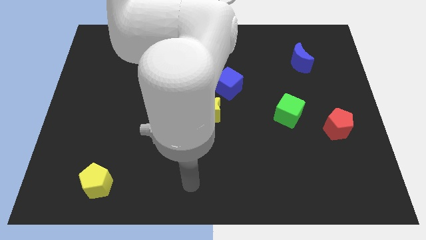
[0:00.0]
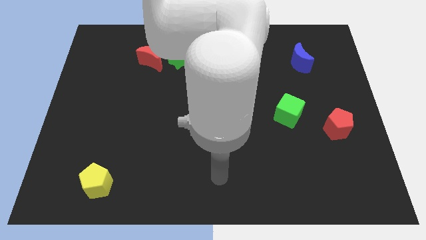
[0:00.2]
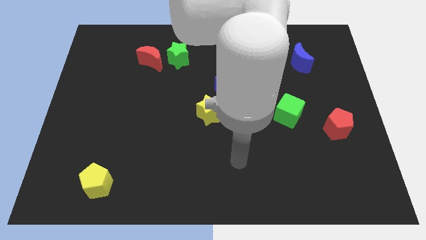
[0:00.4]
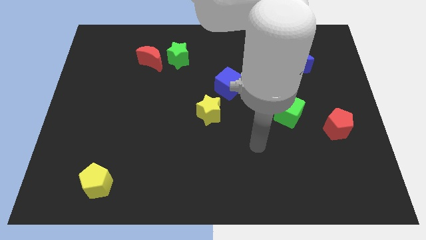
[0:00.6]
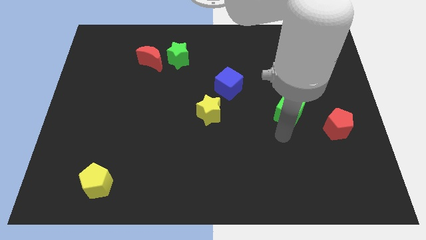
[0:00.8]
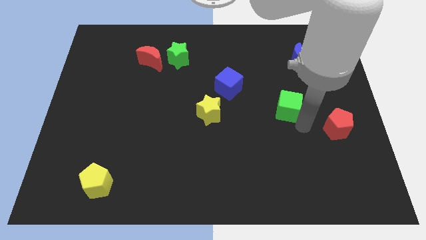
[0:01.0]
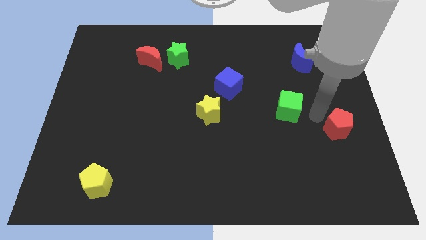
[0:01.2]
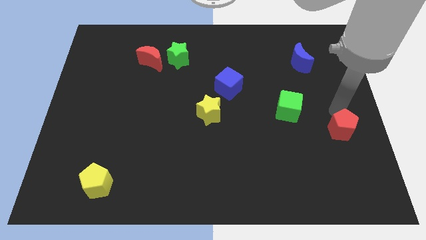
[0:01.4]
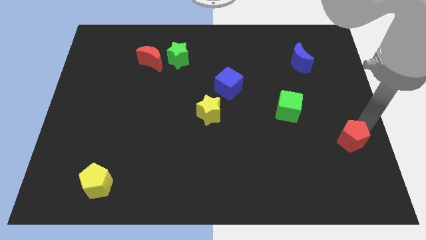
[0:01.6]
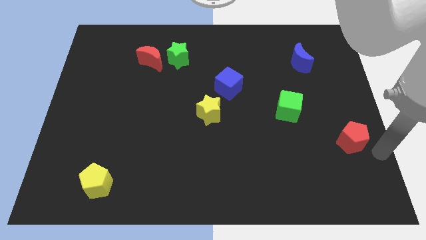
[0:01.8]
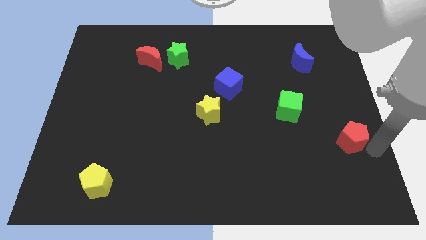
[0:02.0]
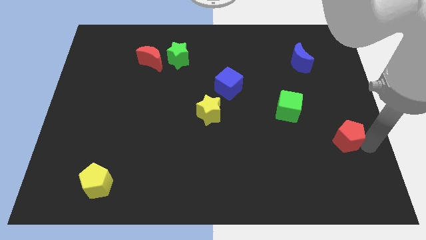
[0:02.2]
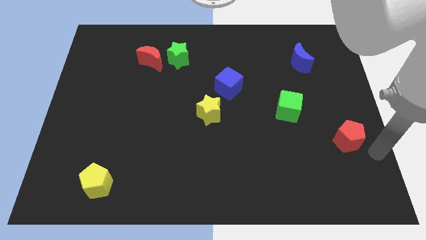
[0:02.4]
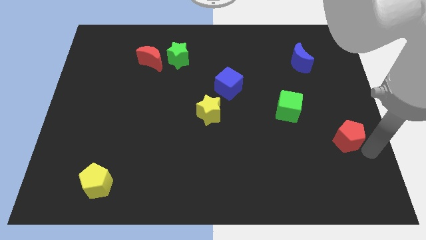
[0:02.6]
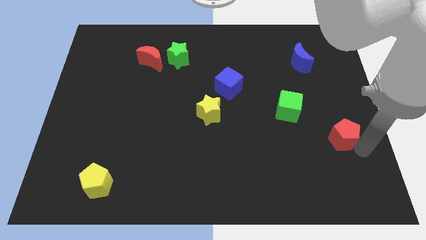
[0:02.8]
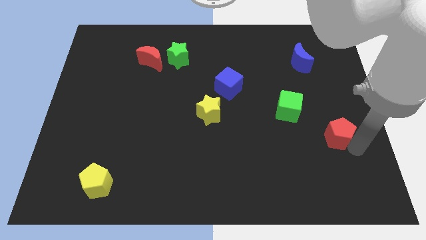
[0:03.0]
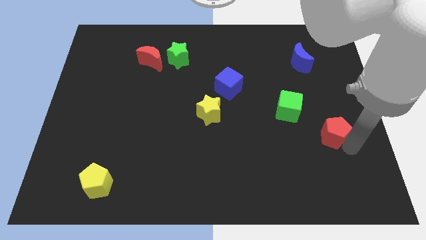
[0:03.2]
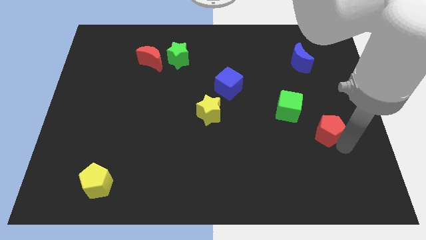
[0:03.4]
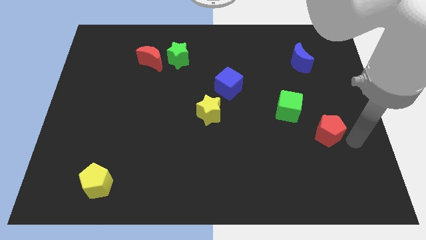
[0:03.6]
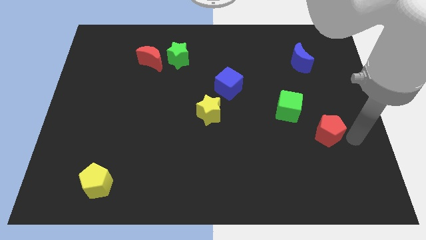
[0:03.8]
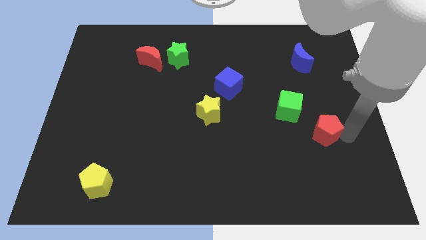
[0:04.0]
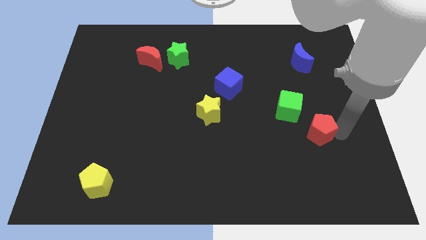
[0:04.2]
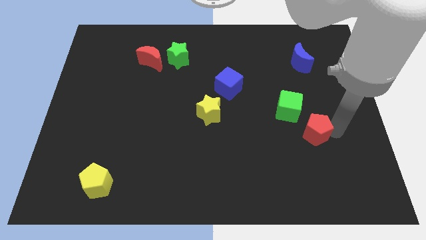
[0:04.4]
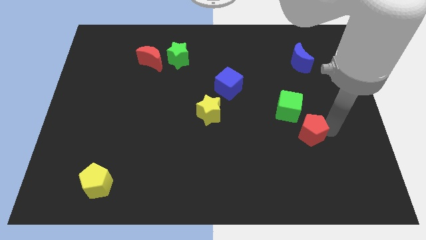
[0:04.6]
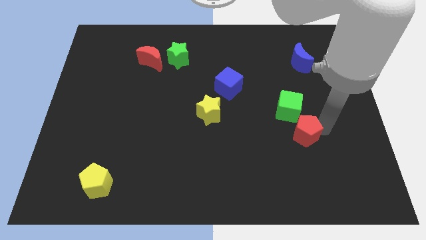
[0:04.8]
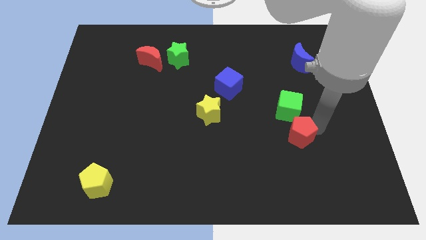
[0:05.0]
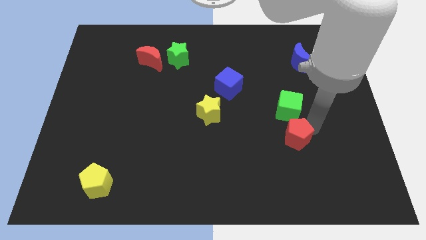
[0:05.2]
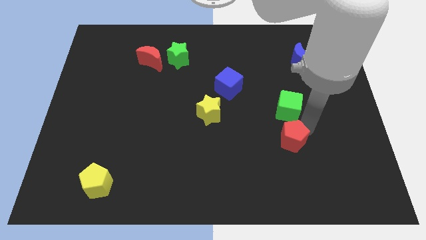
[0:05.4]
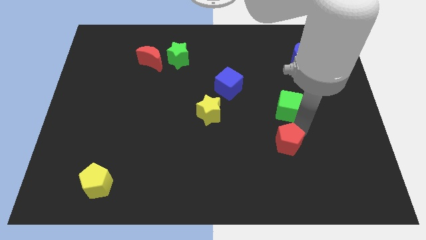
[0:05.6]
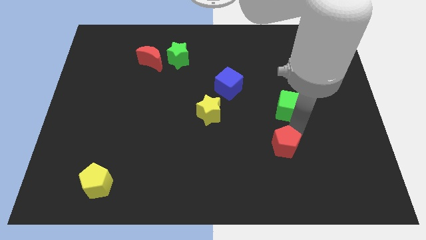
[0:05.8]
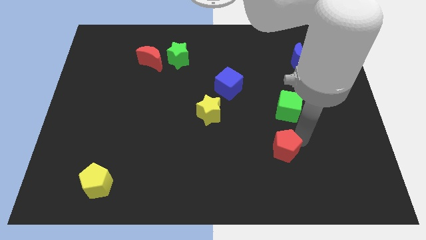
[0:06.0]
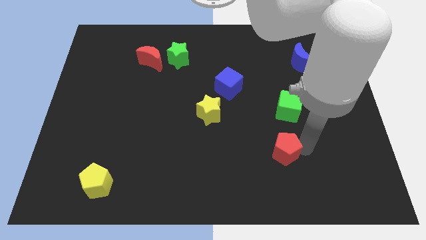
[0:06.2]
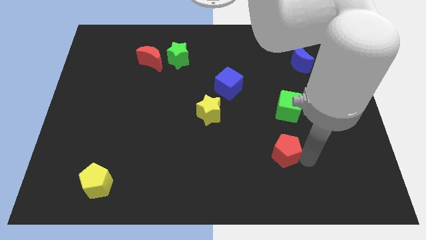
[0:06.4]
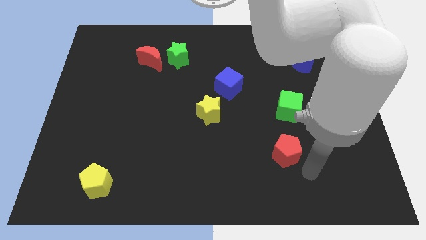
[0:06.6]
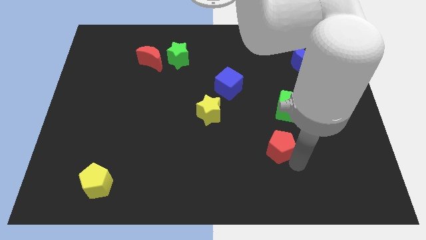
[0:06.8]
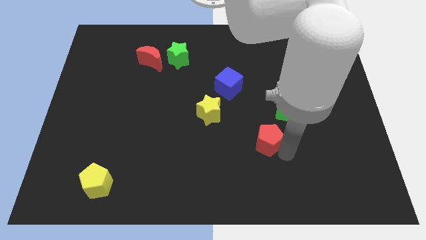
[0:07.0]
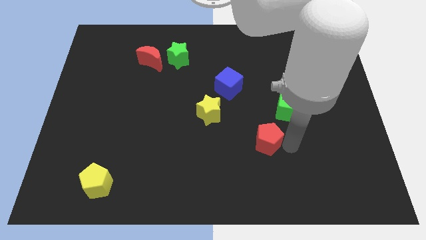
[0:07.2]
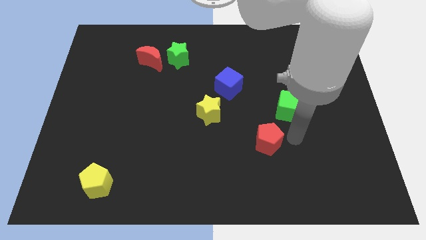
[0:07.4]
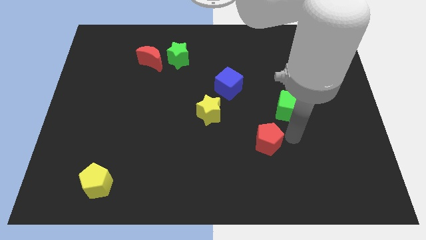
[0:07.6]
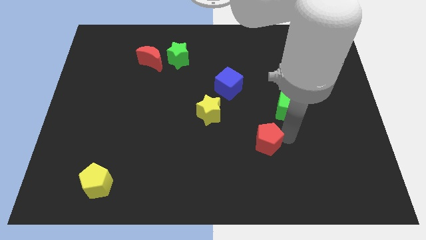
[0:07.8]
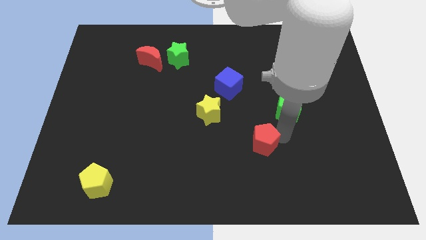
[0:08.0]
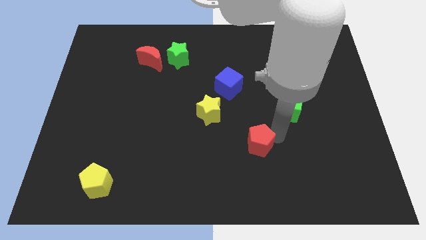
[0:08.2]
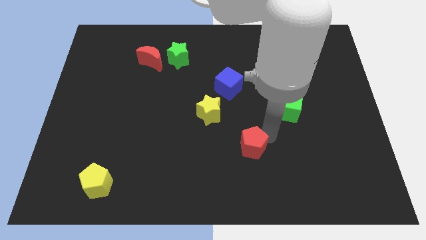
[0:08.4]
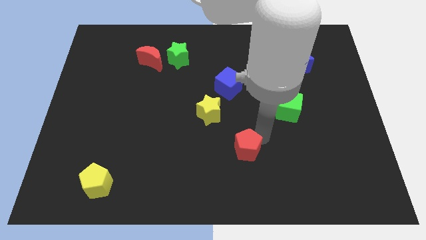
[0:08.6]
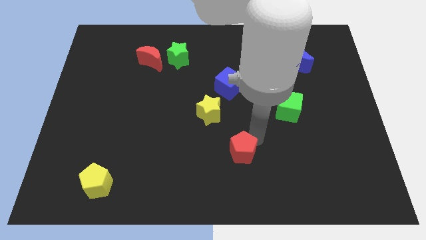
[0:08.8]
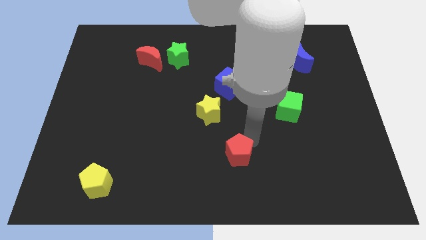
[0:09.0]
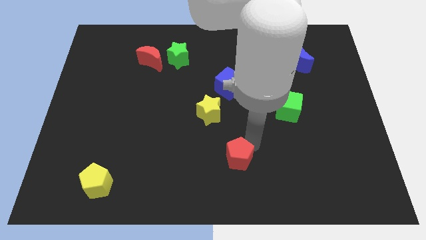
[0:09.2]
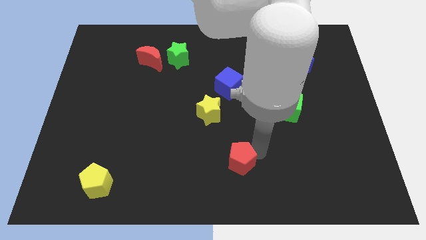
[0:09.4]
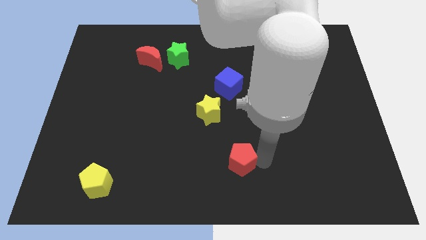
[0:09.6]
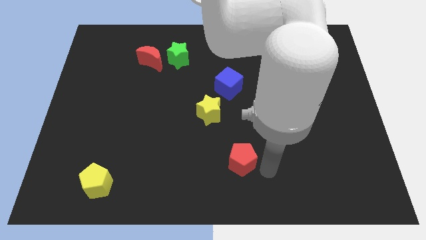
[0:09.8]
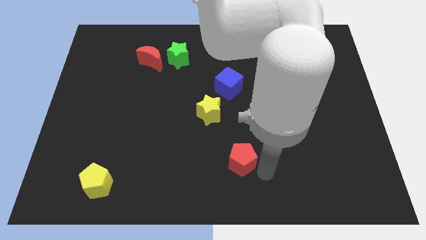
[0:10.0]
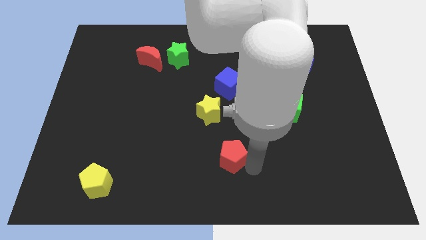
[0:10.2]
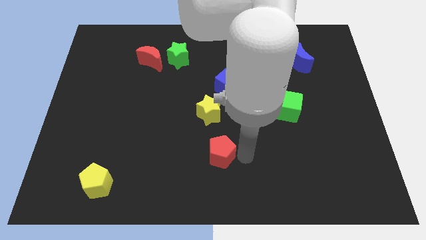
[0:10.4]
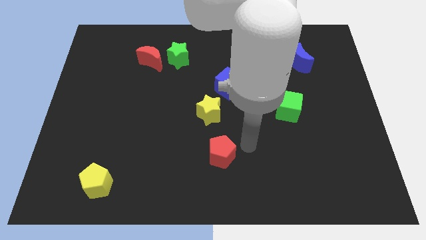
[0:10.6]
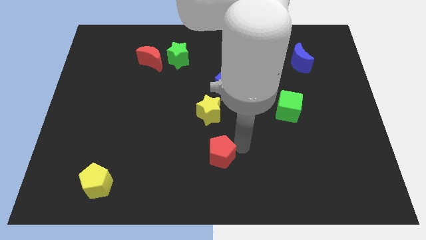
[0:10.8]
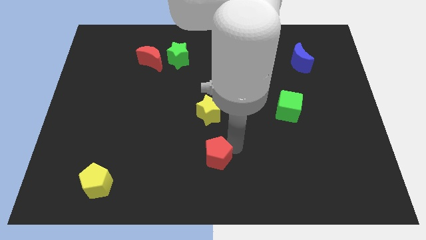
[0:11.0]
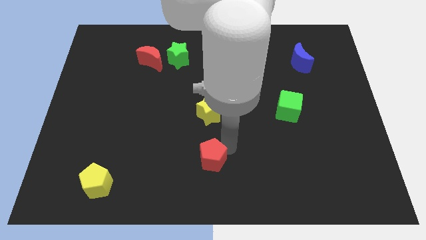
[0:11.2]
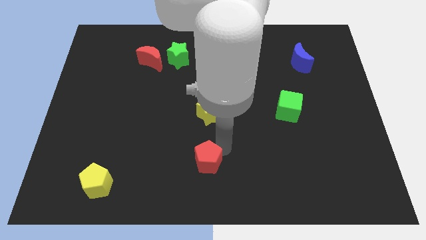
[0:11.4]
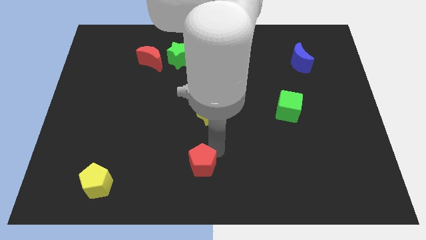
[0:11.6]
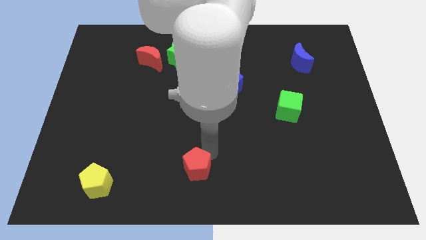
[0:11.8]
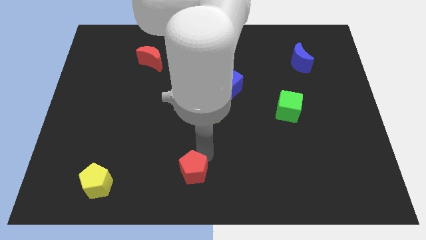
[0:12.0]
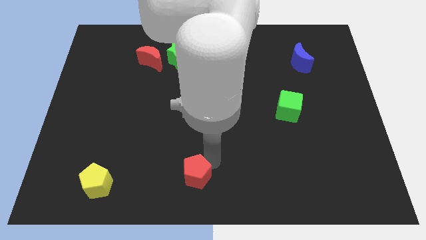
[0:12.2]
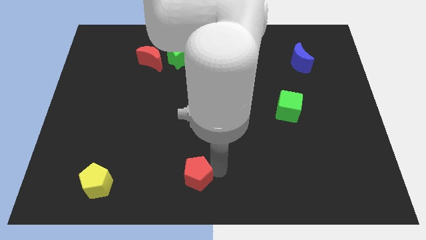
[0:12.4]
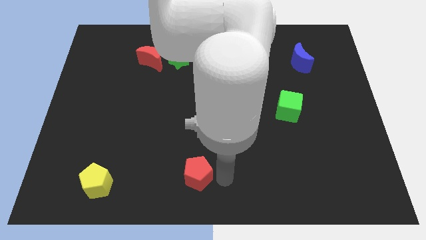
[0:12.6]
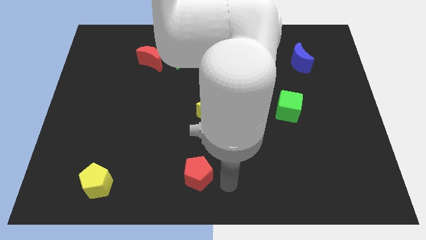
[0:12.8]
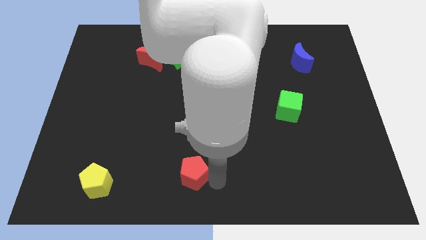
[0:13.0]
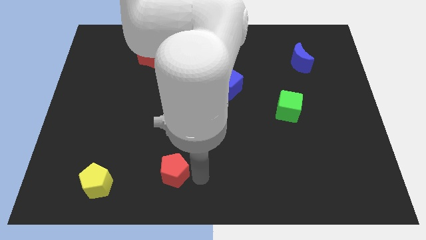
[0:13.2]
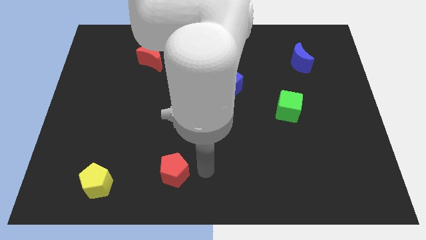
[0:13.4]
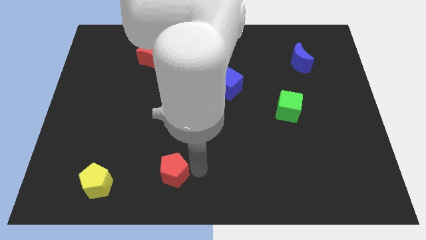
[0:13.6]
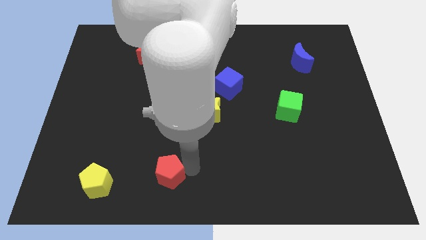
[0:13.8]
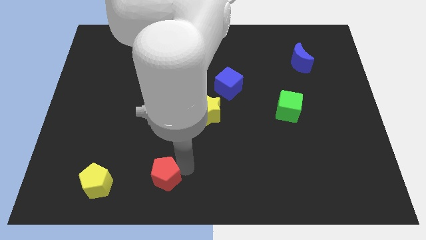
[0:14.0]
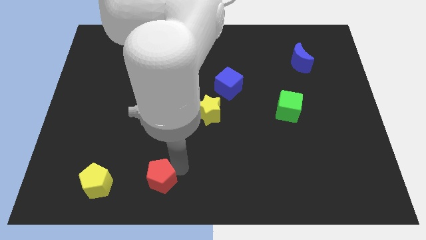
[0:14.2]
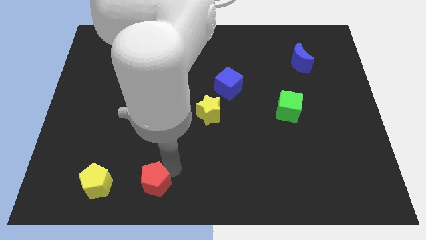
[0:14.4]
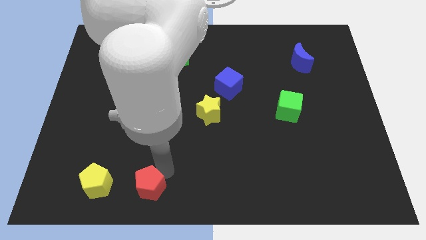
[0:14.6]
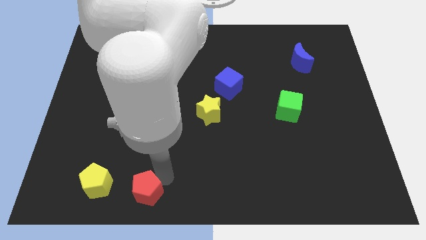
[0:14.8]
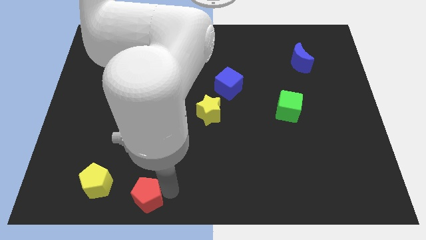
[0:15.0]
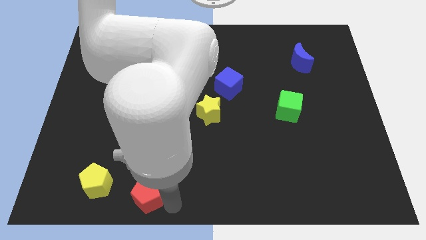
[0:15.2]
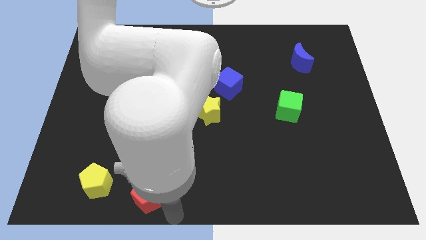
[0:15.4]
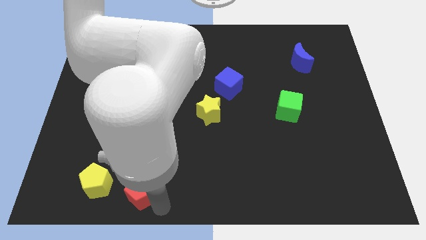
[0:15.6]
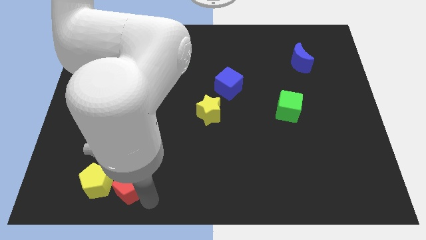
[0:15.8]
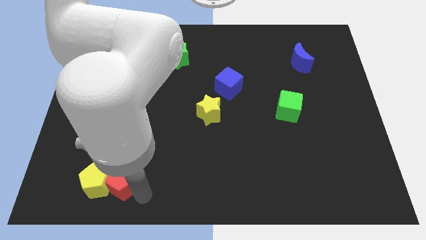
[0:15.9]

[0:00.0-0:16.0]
push the red pentagon close to the yellow pentagon
